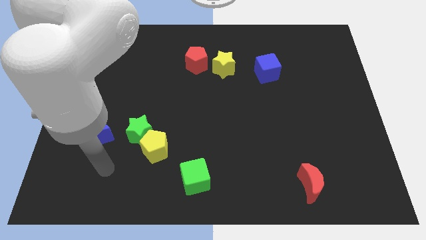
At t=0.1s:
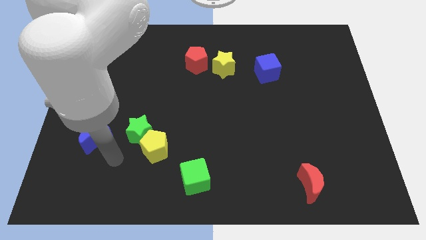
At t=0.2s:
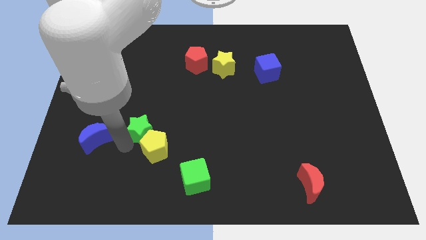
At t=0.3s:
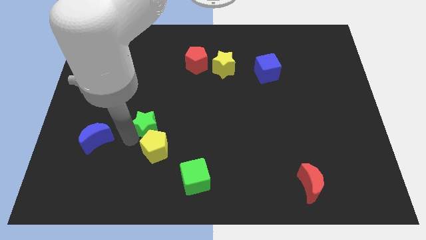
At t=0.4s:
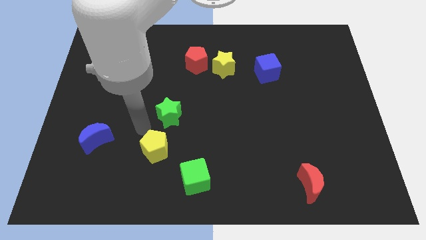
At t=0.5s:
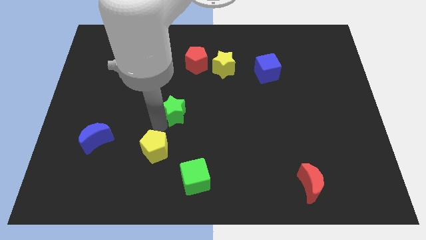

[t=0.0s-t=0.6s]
separate the yellow pentagon from the green star

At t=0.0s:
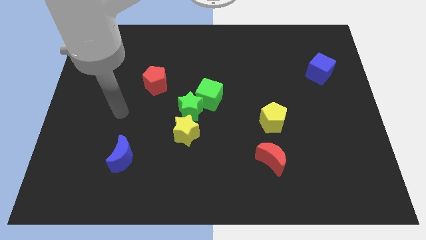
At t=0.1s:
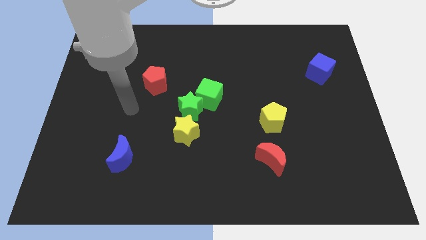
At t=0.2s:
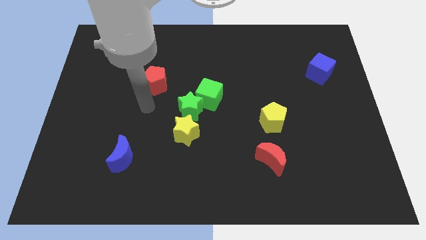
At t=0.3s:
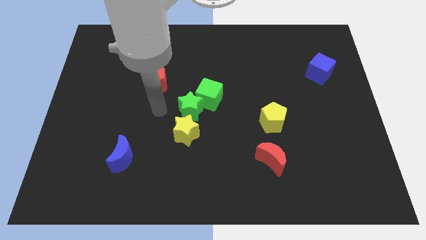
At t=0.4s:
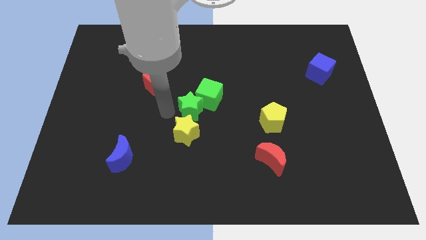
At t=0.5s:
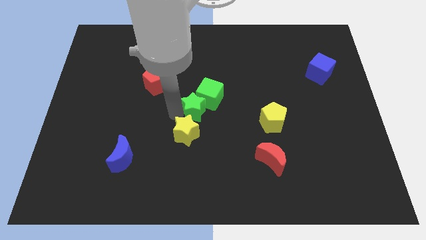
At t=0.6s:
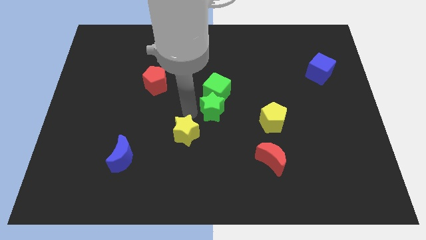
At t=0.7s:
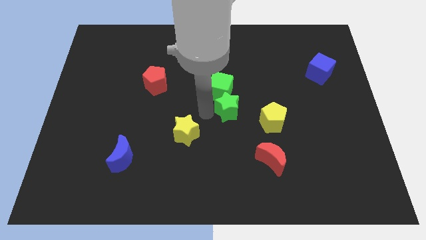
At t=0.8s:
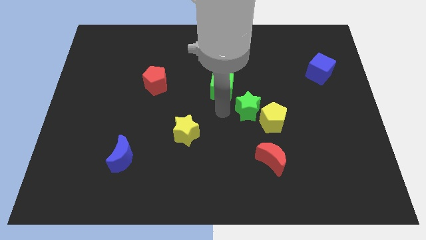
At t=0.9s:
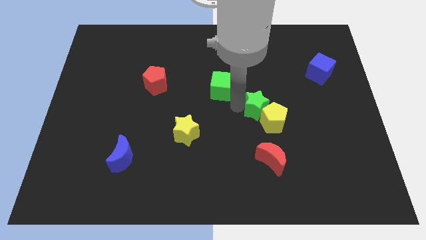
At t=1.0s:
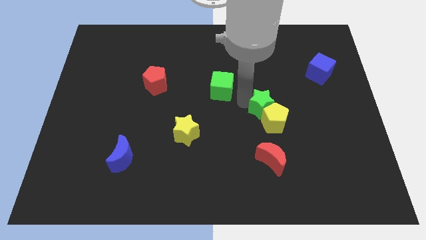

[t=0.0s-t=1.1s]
separate the green cube from the green star

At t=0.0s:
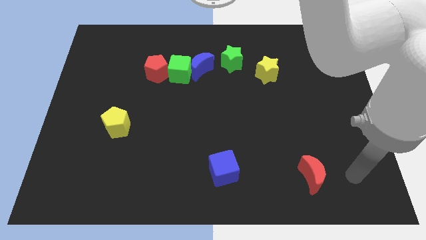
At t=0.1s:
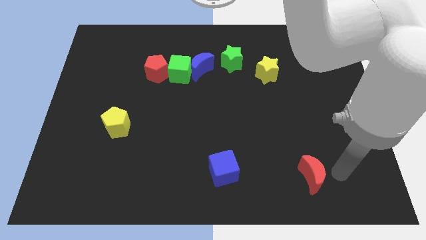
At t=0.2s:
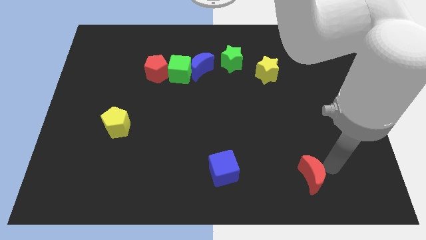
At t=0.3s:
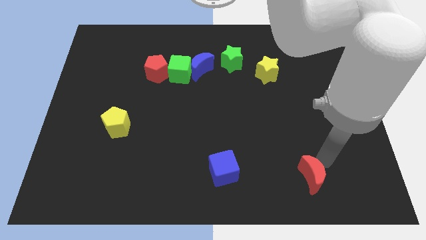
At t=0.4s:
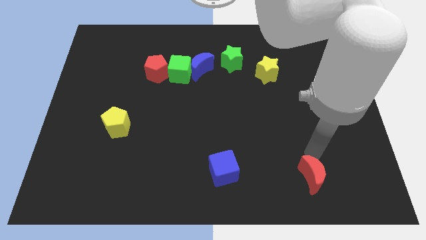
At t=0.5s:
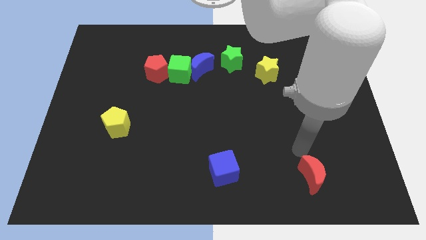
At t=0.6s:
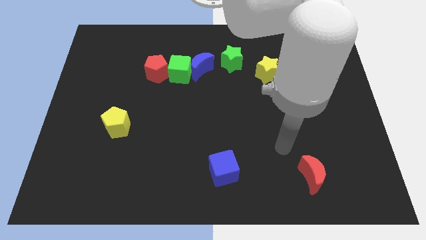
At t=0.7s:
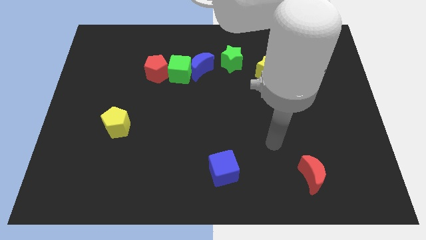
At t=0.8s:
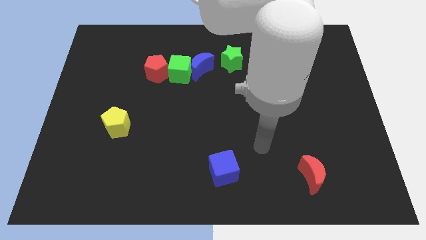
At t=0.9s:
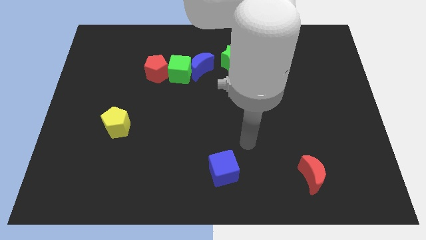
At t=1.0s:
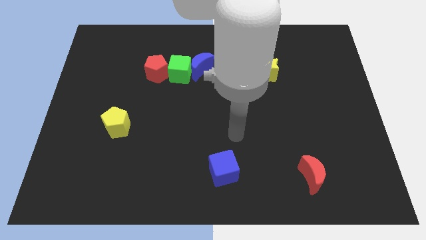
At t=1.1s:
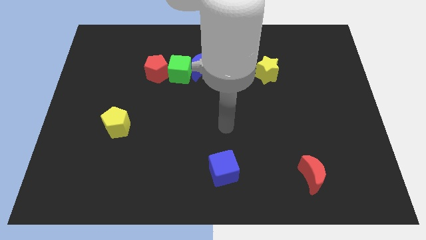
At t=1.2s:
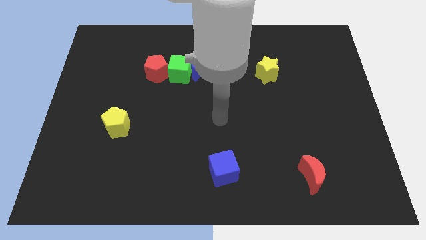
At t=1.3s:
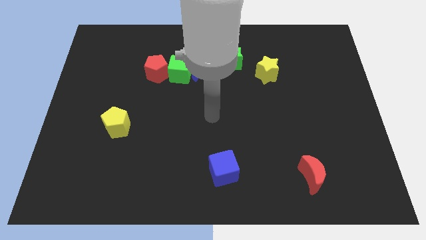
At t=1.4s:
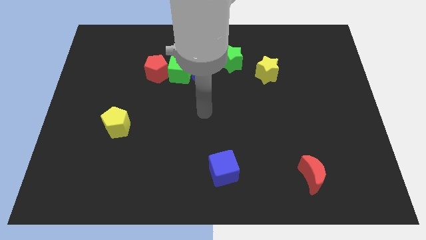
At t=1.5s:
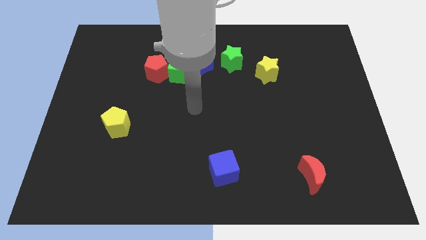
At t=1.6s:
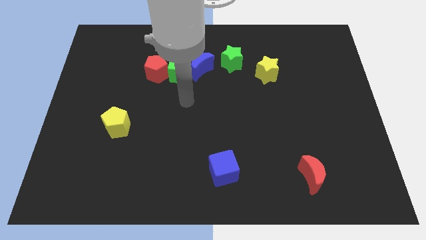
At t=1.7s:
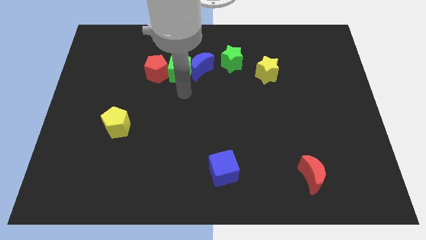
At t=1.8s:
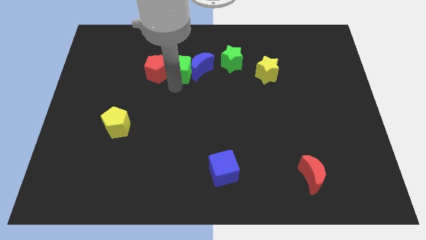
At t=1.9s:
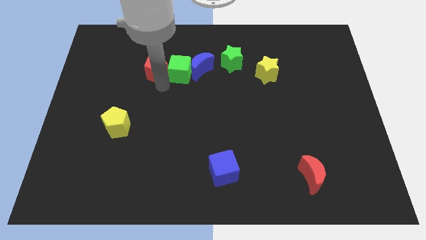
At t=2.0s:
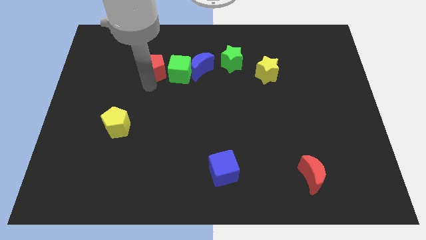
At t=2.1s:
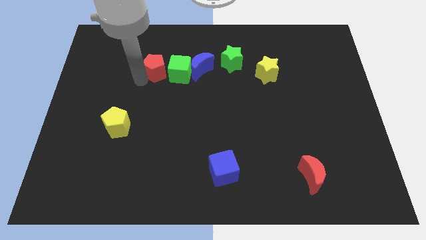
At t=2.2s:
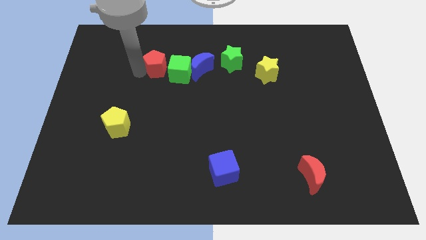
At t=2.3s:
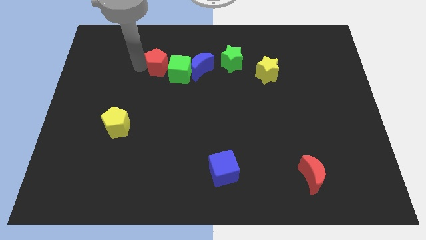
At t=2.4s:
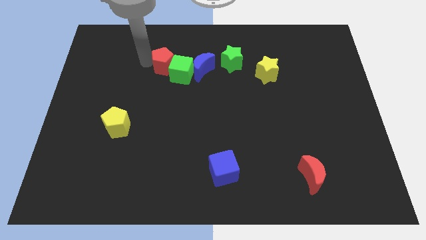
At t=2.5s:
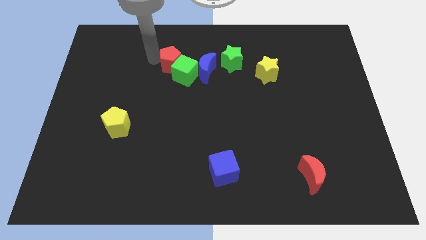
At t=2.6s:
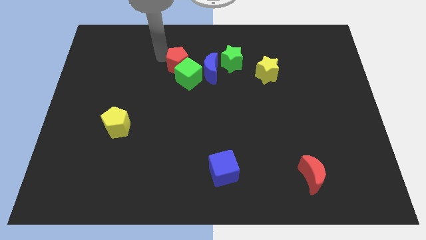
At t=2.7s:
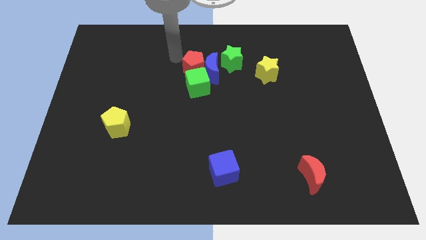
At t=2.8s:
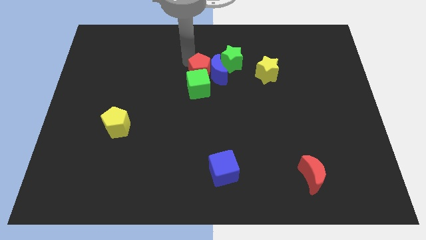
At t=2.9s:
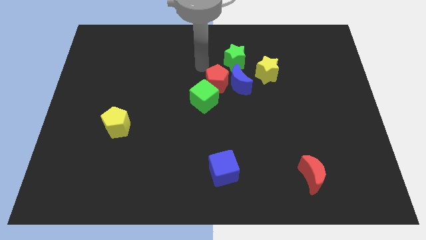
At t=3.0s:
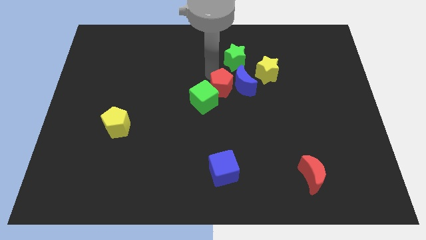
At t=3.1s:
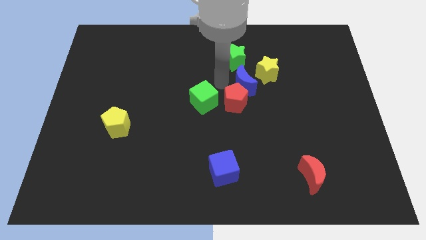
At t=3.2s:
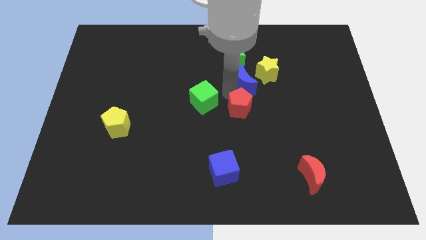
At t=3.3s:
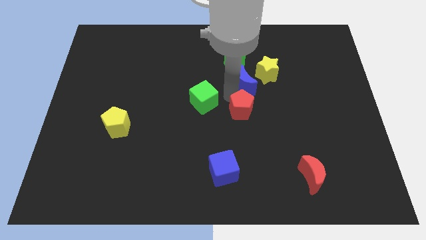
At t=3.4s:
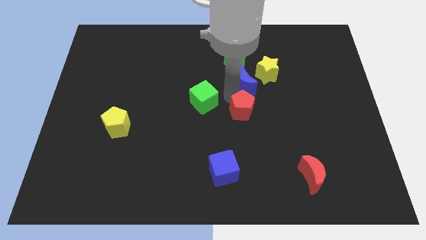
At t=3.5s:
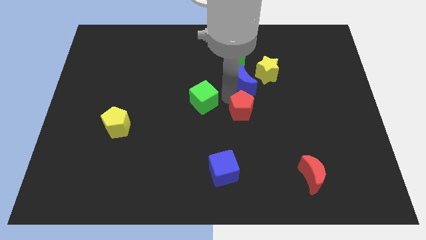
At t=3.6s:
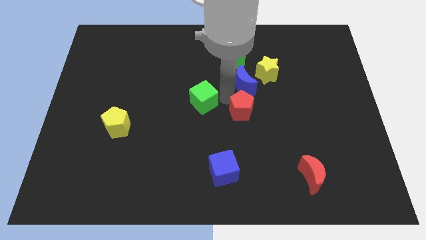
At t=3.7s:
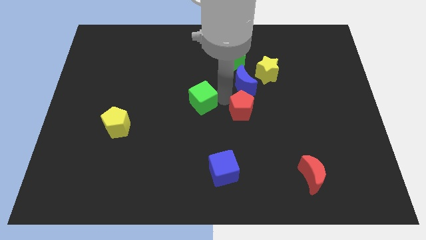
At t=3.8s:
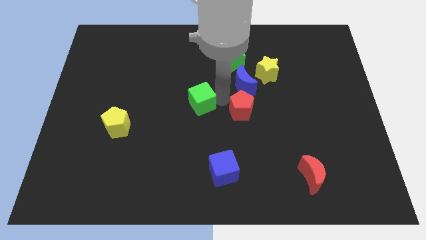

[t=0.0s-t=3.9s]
pull the green cube apart from the blue moon and red pentagon

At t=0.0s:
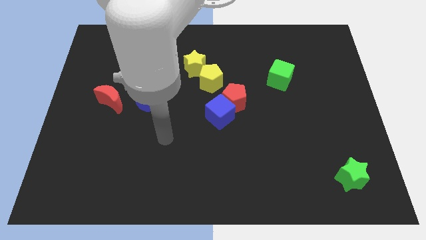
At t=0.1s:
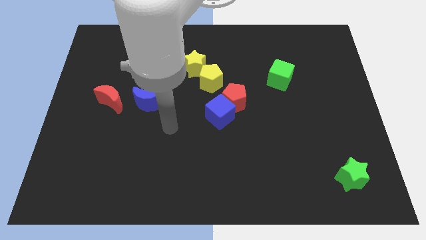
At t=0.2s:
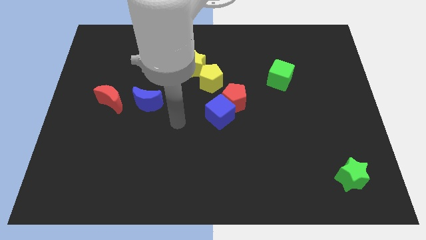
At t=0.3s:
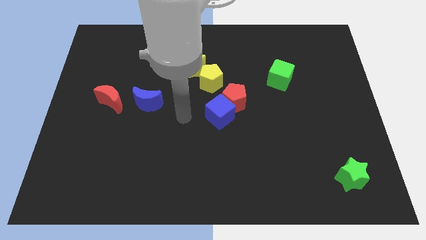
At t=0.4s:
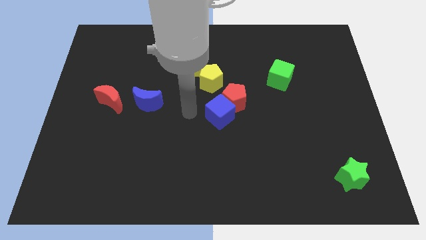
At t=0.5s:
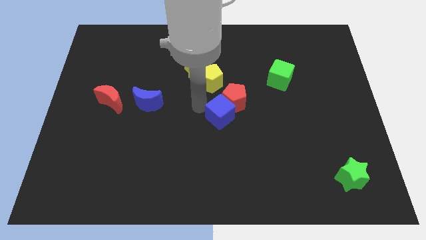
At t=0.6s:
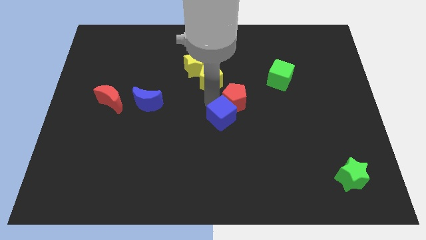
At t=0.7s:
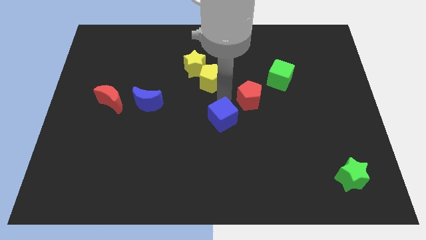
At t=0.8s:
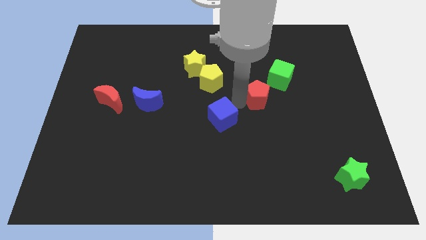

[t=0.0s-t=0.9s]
separate the blue cube from the red pentagon

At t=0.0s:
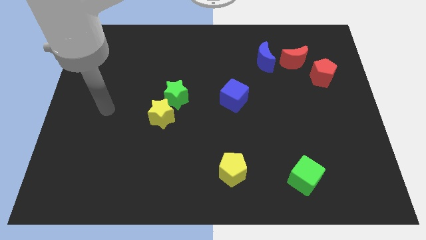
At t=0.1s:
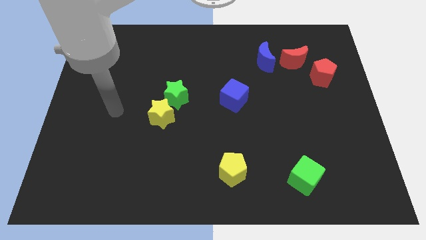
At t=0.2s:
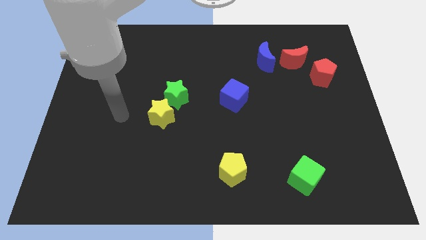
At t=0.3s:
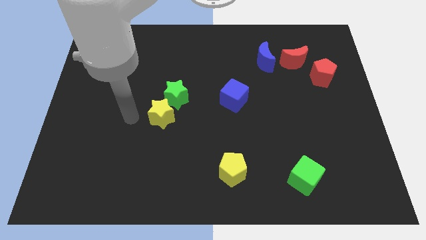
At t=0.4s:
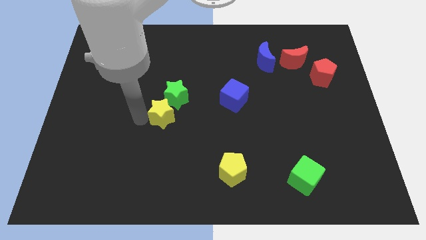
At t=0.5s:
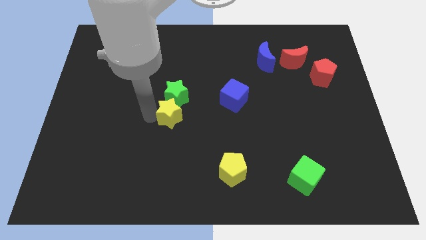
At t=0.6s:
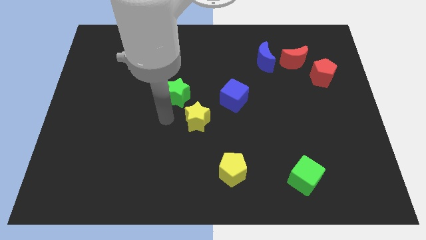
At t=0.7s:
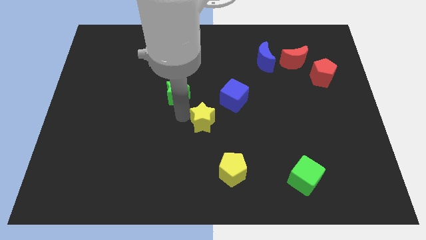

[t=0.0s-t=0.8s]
separate the green star from the yellow star

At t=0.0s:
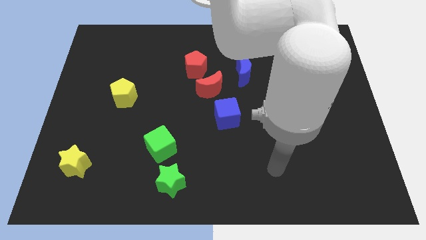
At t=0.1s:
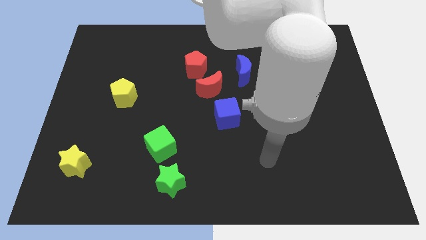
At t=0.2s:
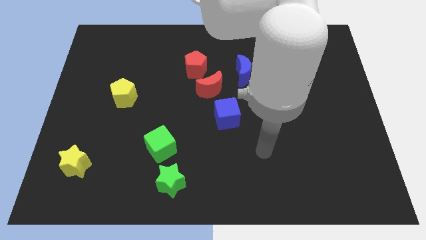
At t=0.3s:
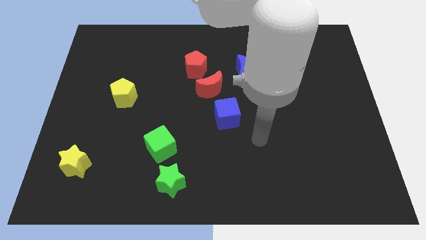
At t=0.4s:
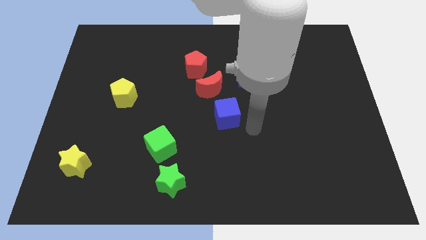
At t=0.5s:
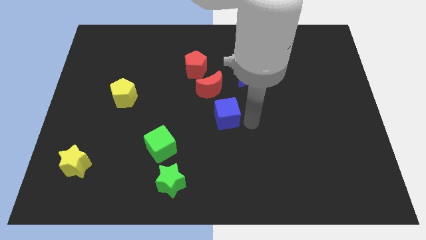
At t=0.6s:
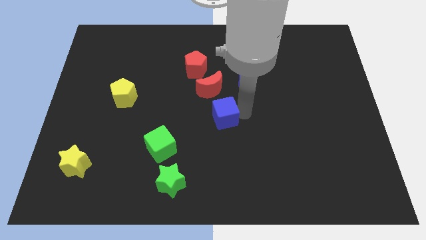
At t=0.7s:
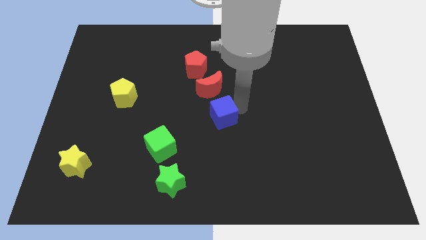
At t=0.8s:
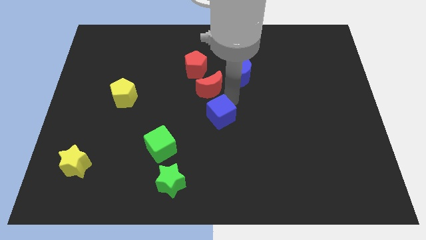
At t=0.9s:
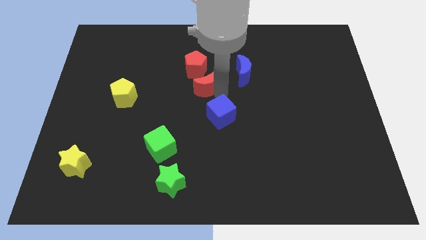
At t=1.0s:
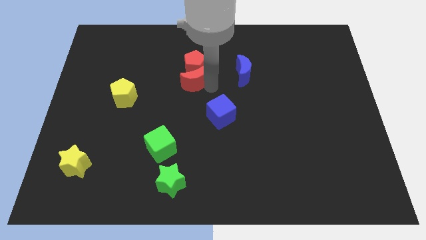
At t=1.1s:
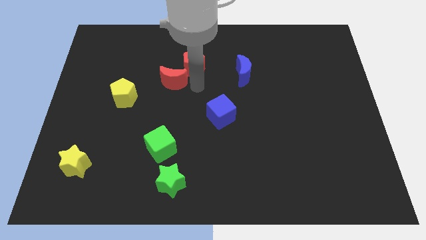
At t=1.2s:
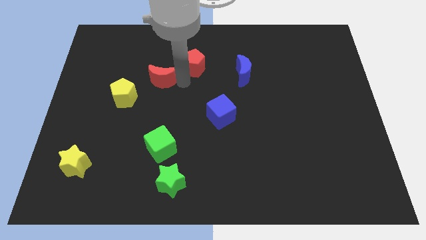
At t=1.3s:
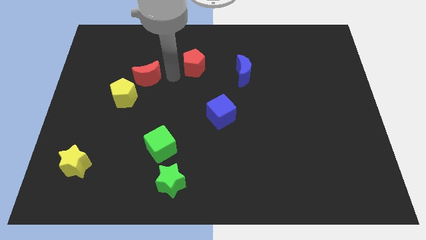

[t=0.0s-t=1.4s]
move the red pentagon away from the red moon

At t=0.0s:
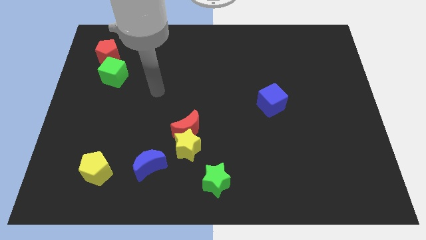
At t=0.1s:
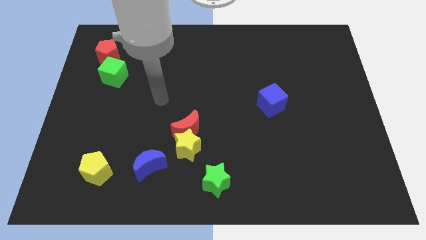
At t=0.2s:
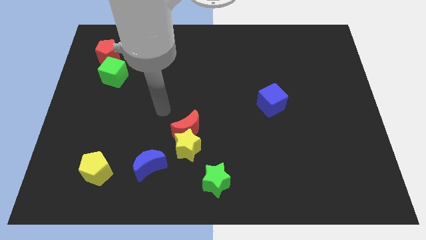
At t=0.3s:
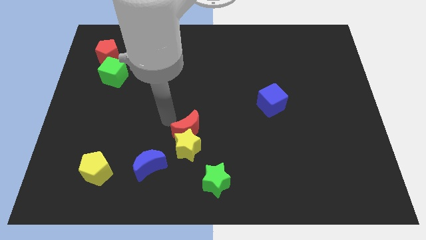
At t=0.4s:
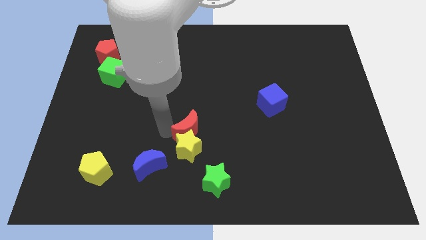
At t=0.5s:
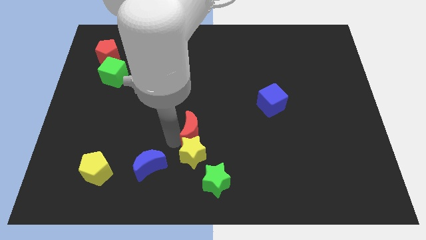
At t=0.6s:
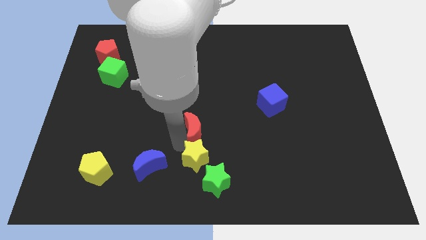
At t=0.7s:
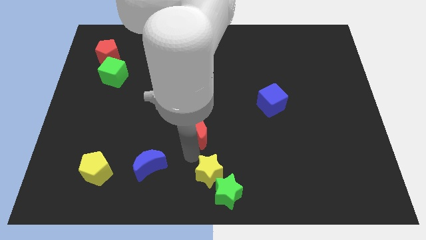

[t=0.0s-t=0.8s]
pull the red moon apart from the yellow star
